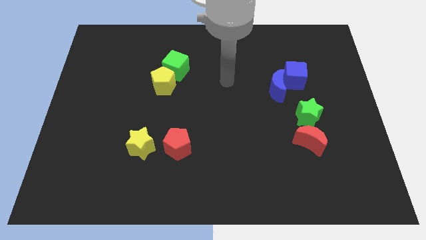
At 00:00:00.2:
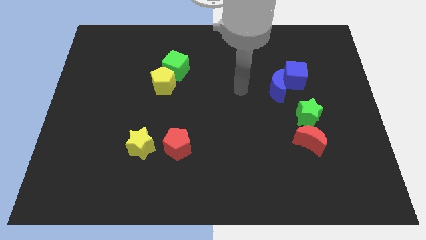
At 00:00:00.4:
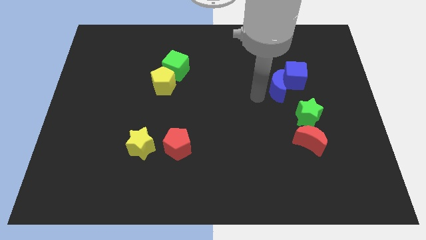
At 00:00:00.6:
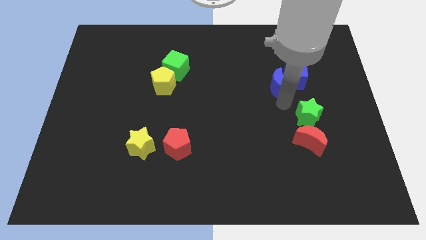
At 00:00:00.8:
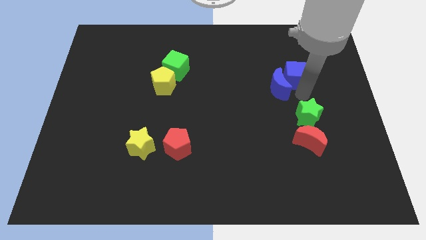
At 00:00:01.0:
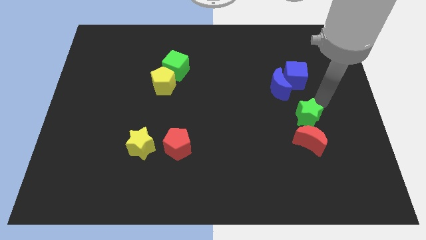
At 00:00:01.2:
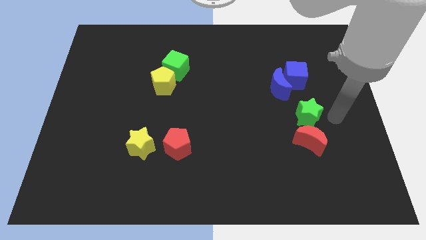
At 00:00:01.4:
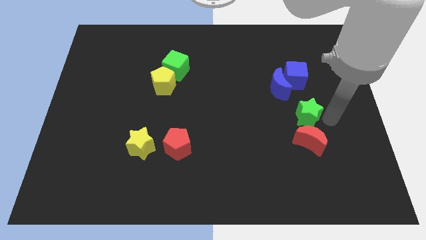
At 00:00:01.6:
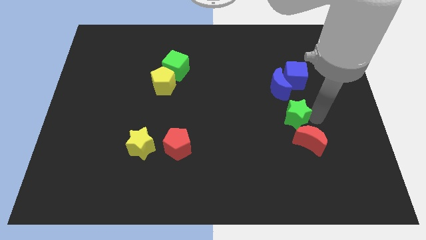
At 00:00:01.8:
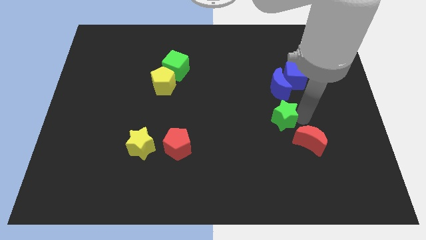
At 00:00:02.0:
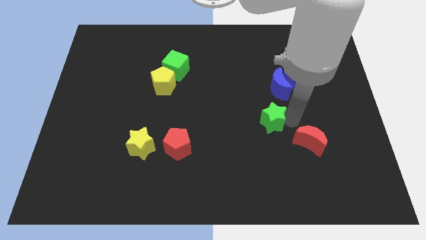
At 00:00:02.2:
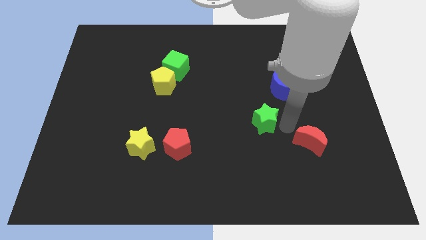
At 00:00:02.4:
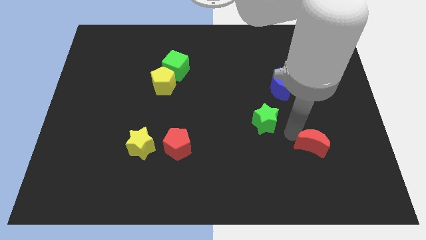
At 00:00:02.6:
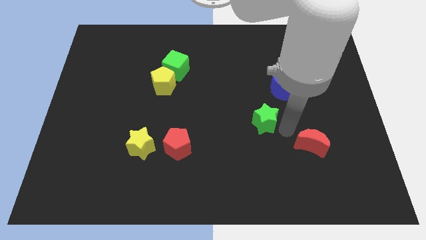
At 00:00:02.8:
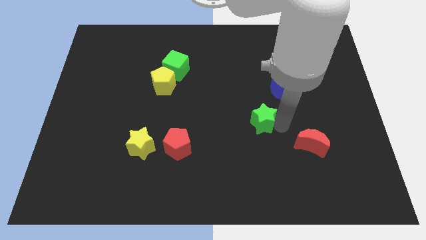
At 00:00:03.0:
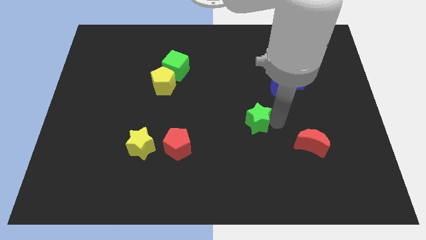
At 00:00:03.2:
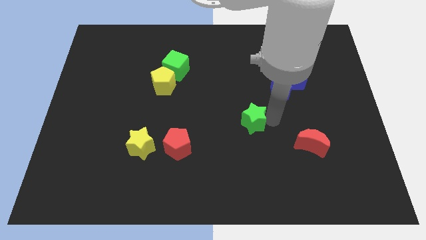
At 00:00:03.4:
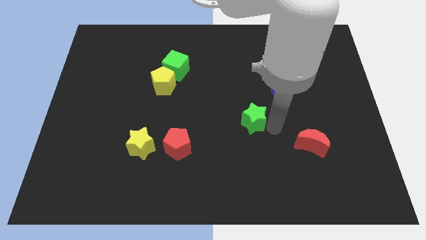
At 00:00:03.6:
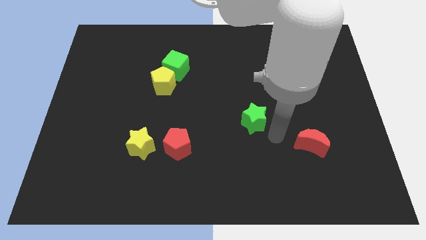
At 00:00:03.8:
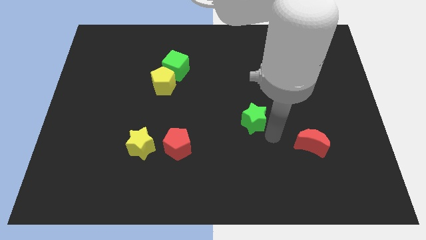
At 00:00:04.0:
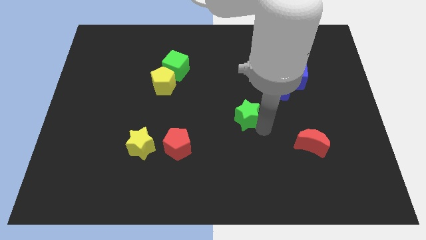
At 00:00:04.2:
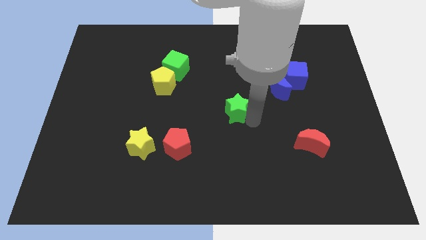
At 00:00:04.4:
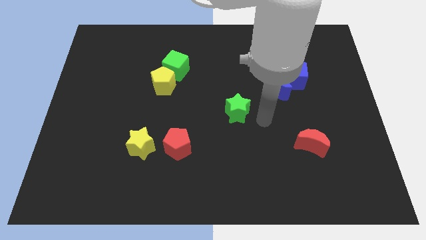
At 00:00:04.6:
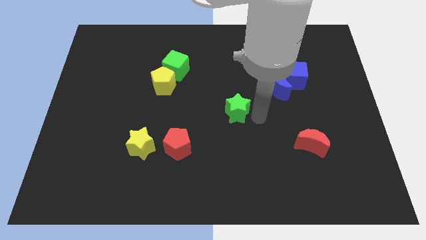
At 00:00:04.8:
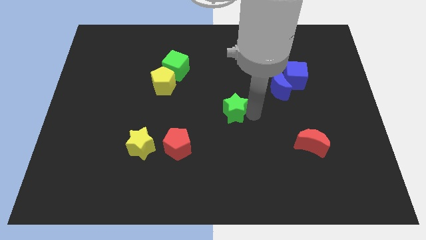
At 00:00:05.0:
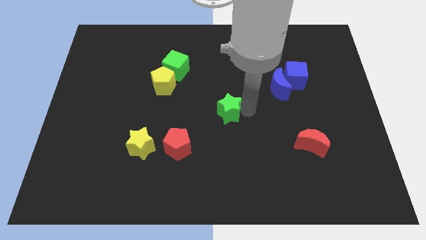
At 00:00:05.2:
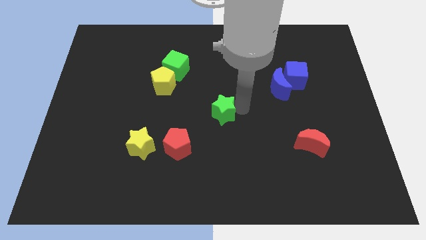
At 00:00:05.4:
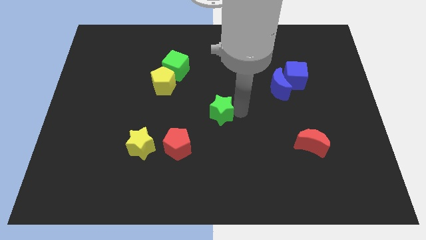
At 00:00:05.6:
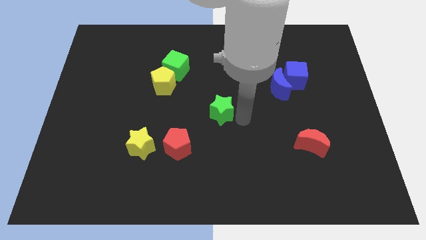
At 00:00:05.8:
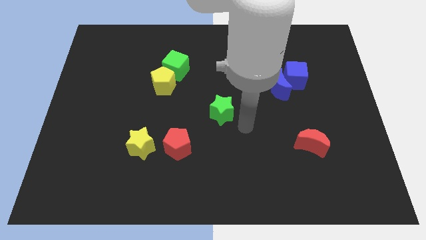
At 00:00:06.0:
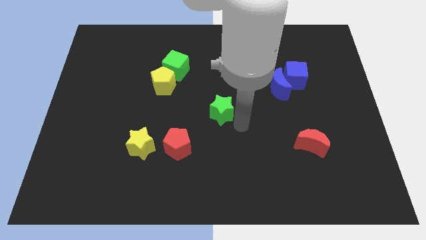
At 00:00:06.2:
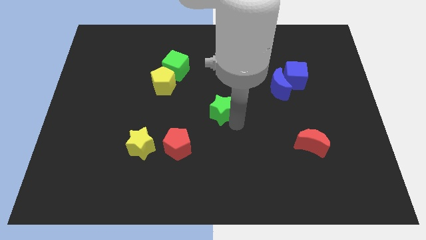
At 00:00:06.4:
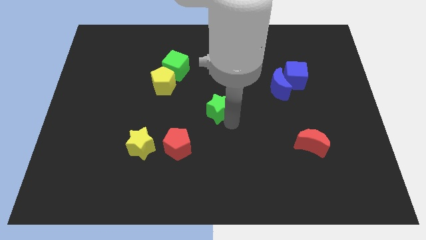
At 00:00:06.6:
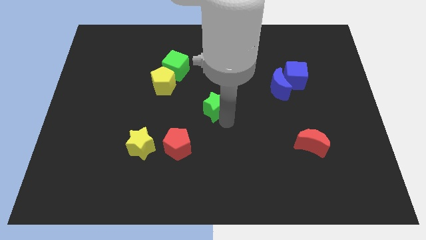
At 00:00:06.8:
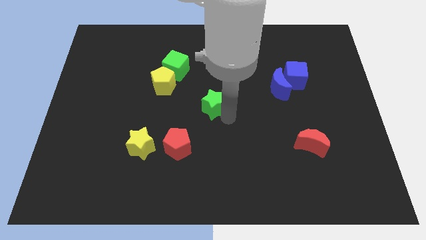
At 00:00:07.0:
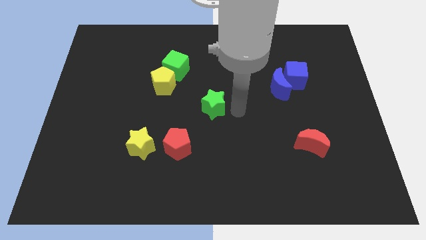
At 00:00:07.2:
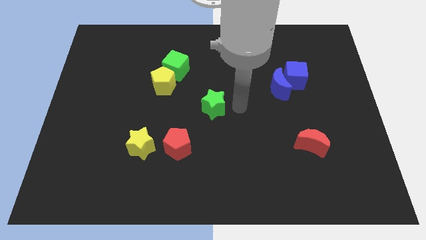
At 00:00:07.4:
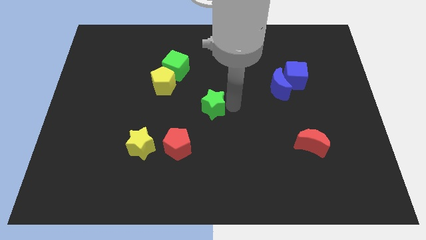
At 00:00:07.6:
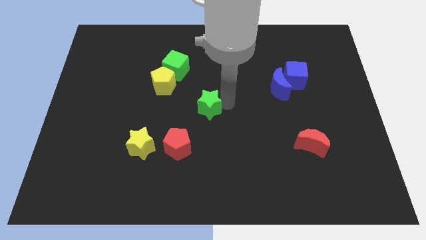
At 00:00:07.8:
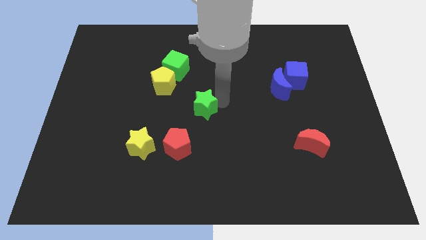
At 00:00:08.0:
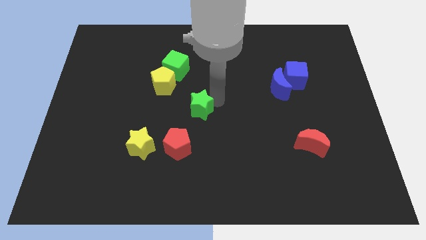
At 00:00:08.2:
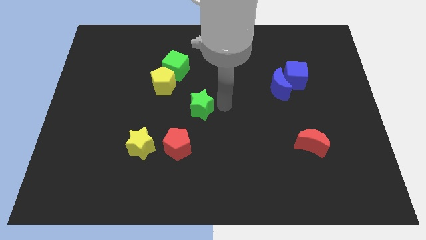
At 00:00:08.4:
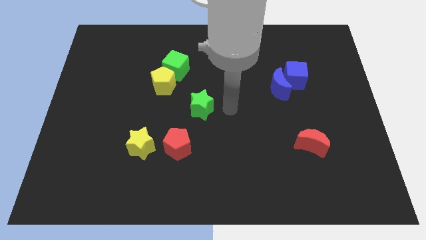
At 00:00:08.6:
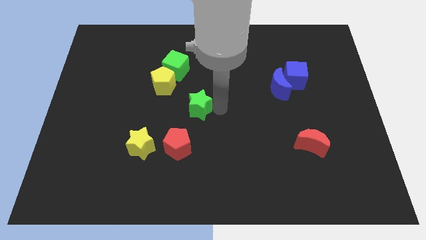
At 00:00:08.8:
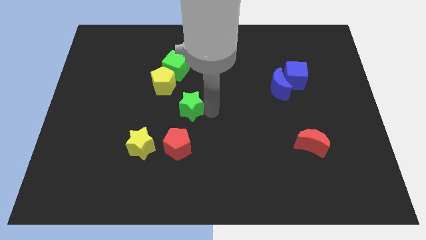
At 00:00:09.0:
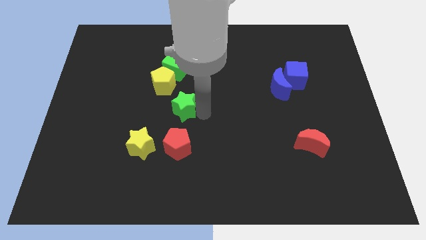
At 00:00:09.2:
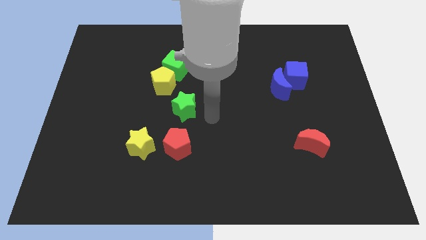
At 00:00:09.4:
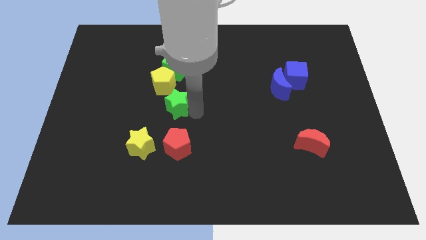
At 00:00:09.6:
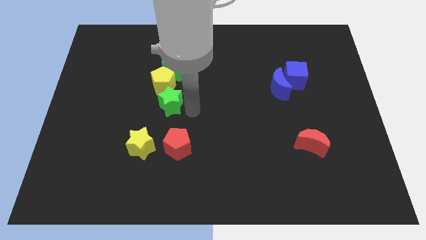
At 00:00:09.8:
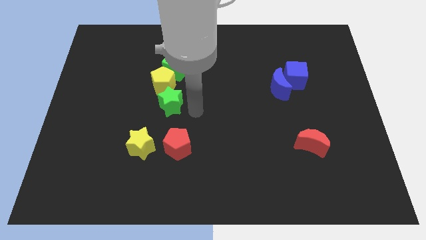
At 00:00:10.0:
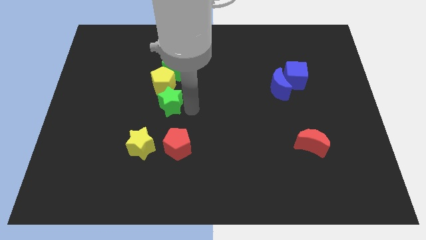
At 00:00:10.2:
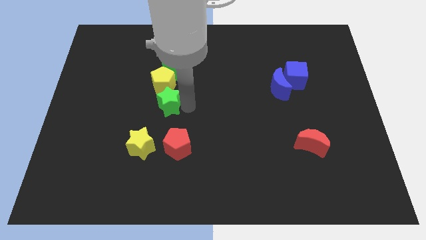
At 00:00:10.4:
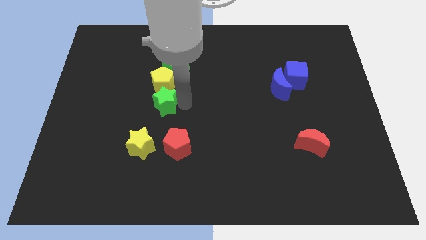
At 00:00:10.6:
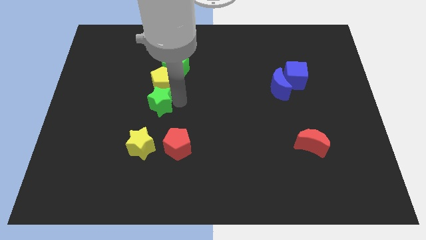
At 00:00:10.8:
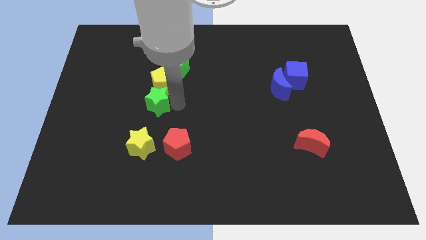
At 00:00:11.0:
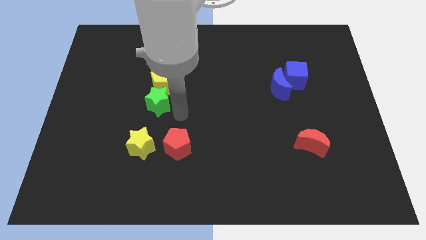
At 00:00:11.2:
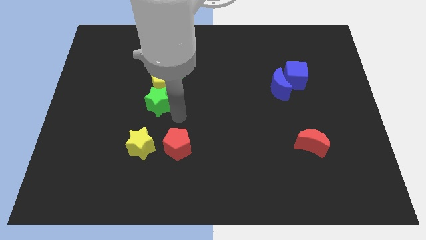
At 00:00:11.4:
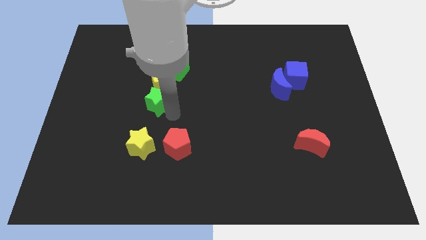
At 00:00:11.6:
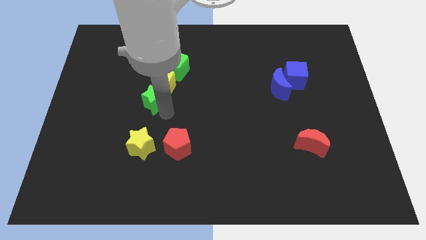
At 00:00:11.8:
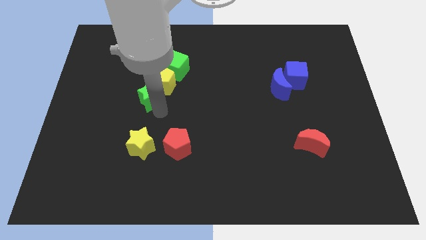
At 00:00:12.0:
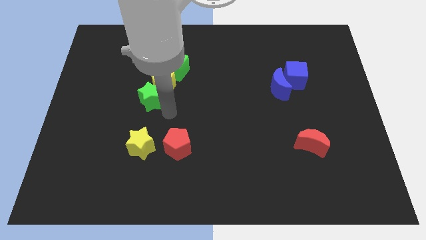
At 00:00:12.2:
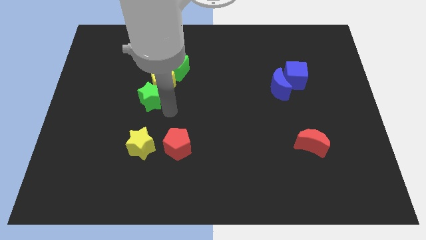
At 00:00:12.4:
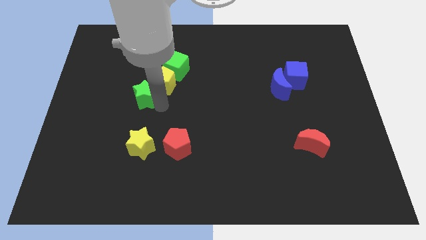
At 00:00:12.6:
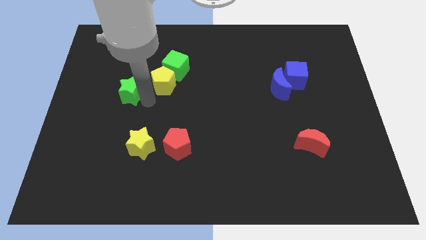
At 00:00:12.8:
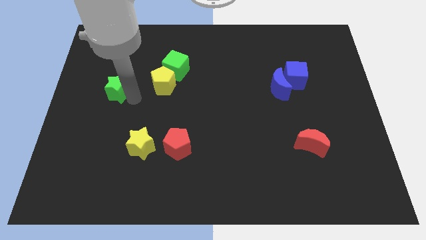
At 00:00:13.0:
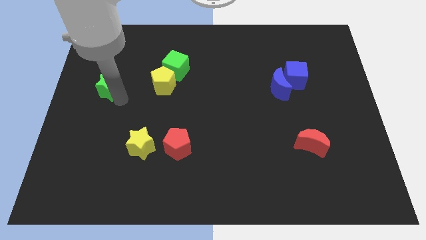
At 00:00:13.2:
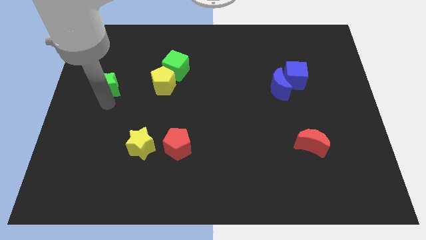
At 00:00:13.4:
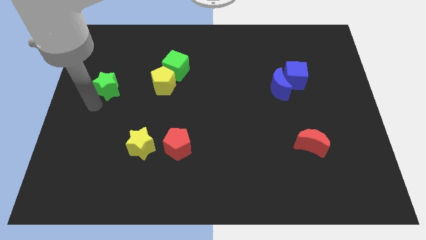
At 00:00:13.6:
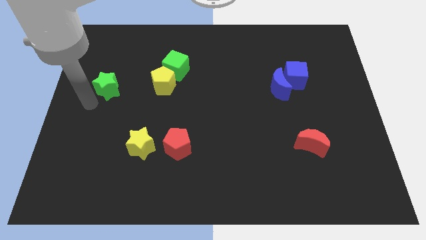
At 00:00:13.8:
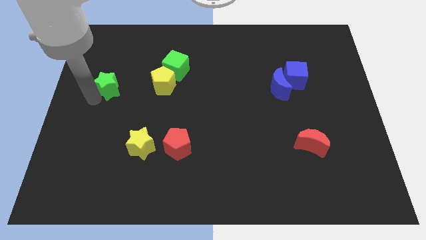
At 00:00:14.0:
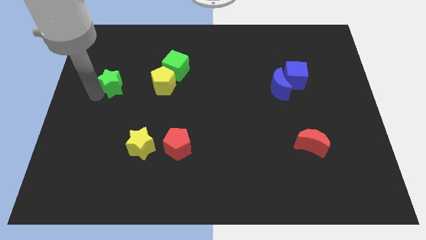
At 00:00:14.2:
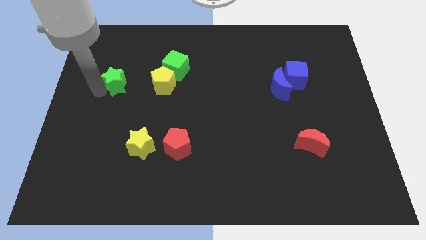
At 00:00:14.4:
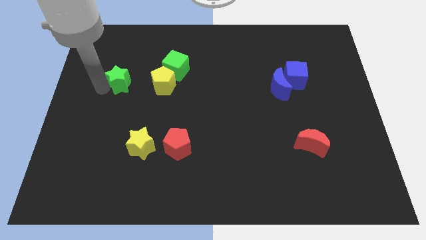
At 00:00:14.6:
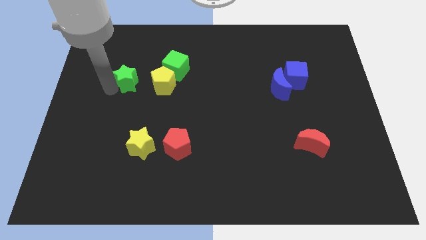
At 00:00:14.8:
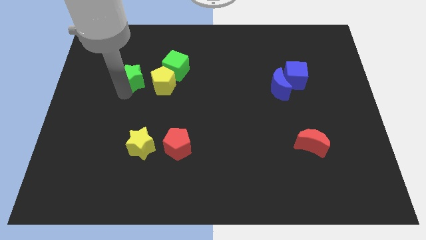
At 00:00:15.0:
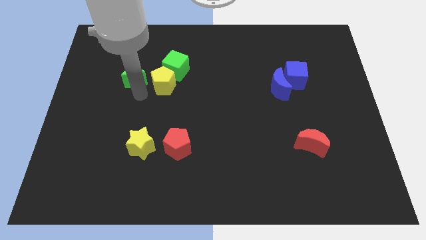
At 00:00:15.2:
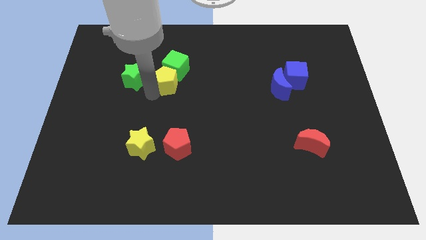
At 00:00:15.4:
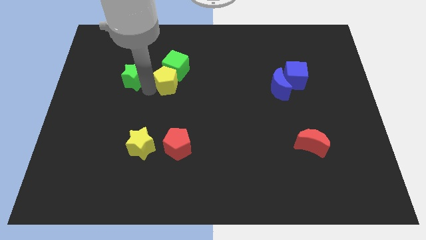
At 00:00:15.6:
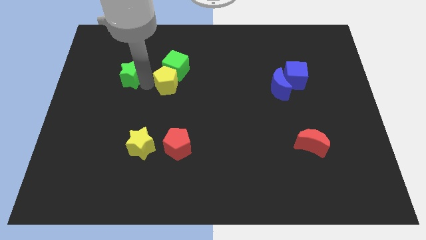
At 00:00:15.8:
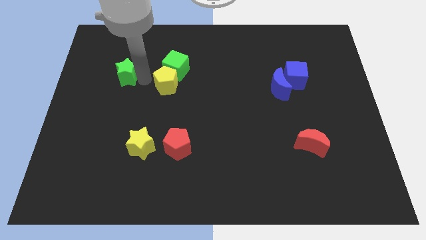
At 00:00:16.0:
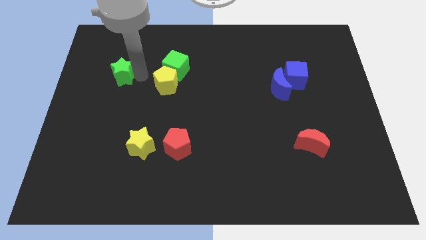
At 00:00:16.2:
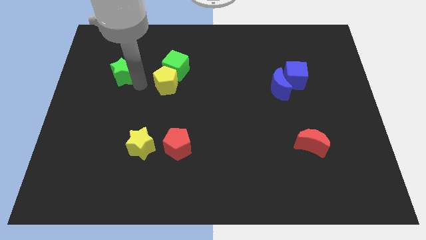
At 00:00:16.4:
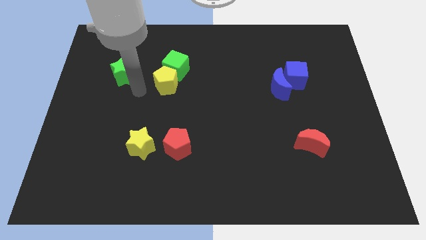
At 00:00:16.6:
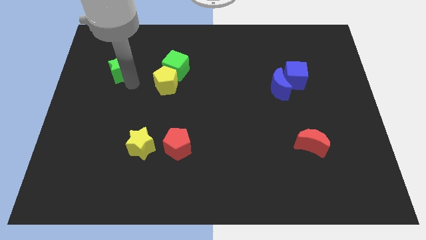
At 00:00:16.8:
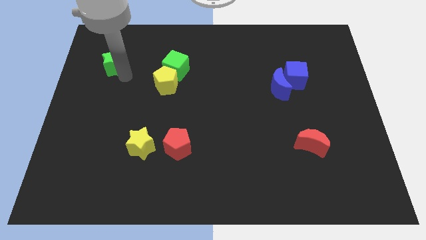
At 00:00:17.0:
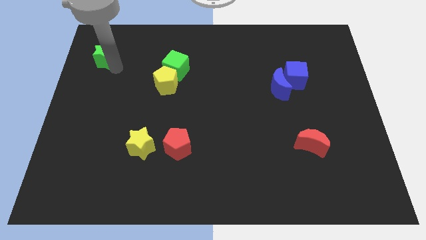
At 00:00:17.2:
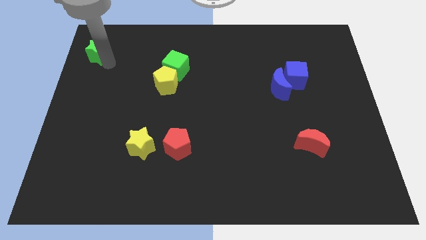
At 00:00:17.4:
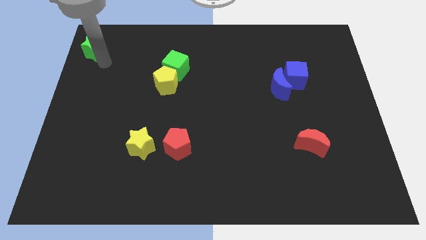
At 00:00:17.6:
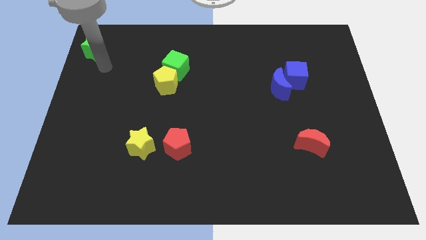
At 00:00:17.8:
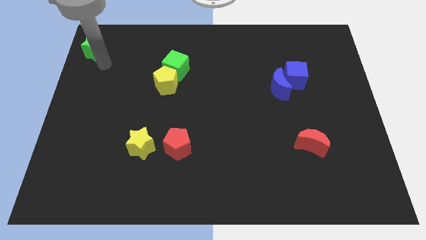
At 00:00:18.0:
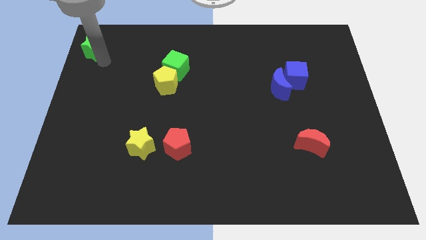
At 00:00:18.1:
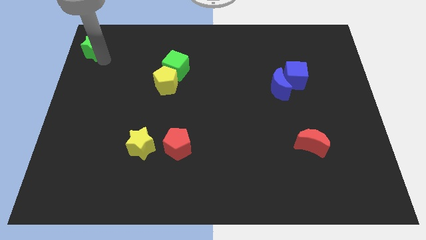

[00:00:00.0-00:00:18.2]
put the green star to the upper left corner
